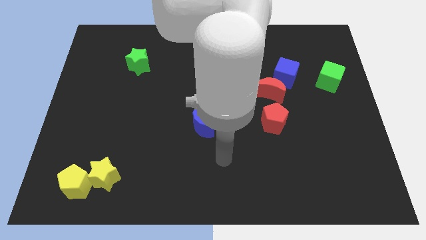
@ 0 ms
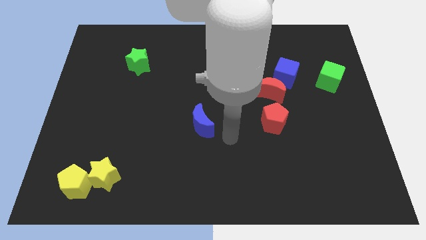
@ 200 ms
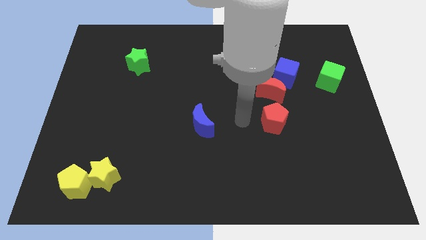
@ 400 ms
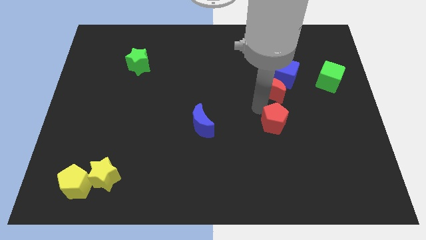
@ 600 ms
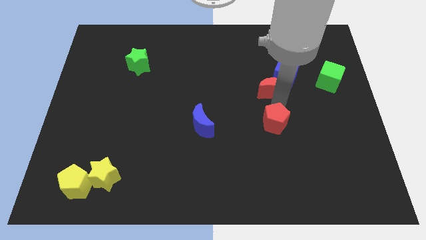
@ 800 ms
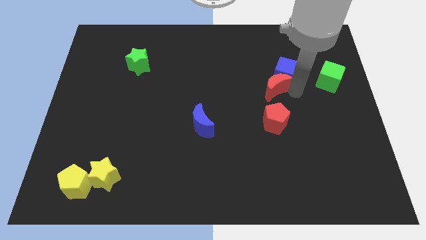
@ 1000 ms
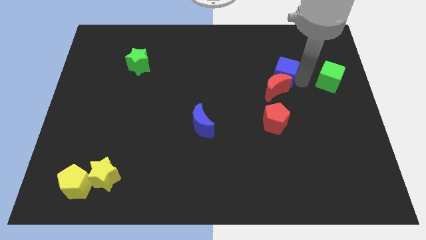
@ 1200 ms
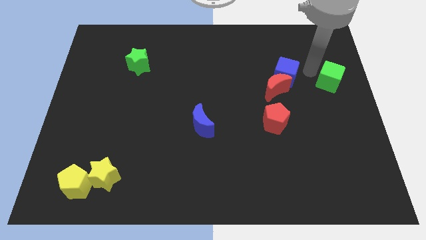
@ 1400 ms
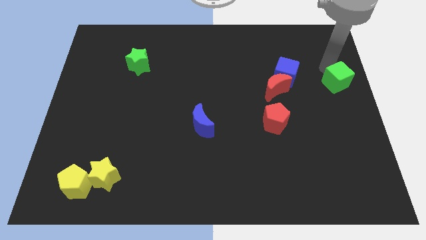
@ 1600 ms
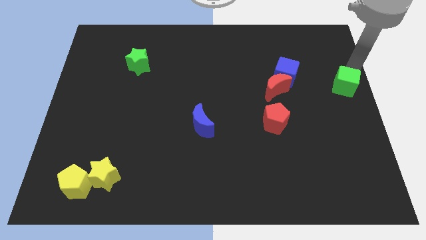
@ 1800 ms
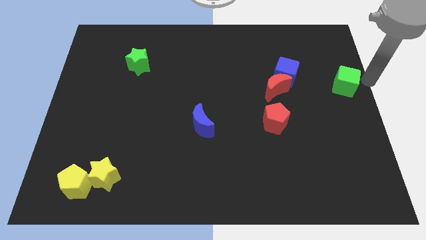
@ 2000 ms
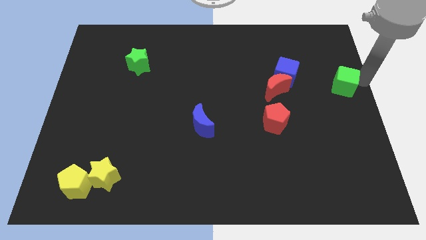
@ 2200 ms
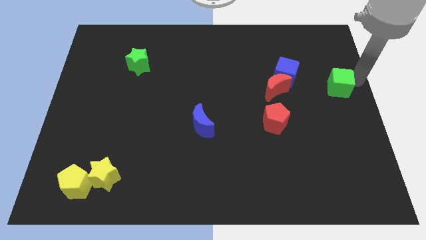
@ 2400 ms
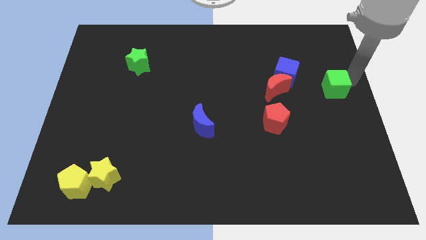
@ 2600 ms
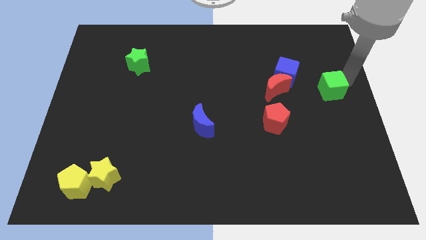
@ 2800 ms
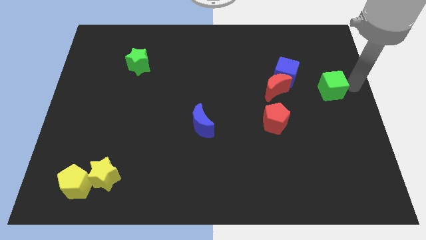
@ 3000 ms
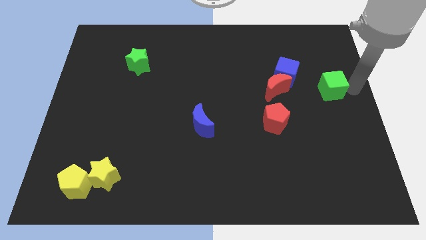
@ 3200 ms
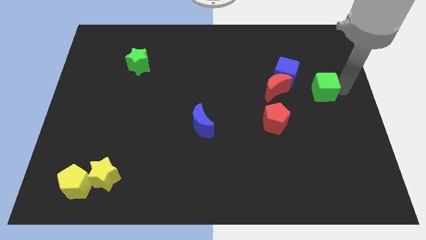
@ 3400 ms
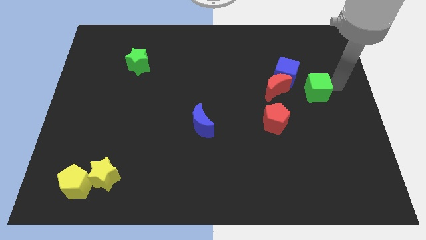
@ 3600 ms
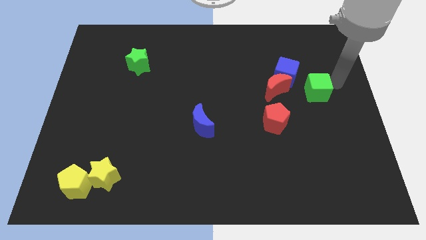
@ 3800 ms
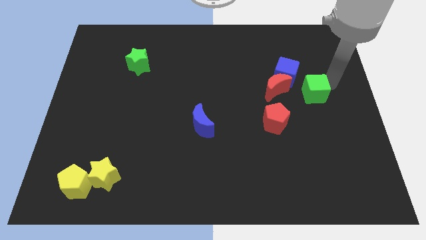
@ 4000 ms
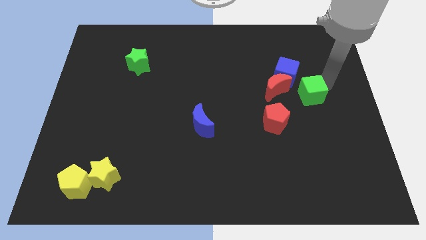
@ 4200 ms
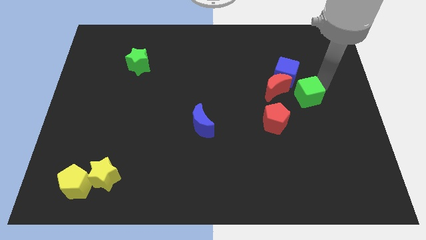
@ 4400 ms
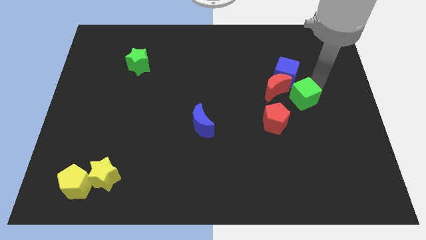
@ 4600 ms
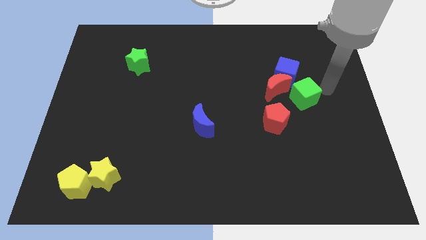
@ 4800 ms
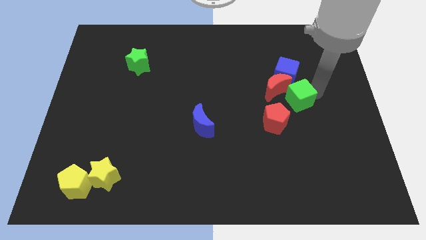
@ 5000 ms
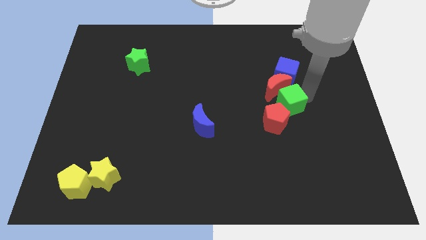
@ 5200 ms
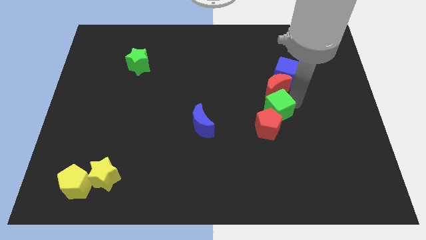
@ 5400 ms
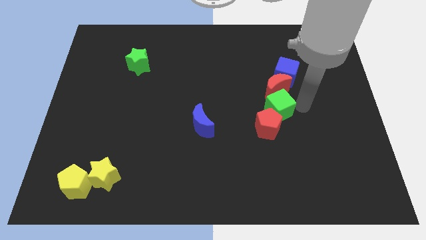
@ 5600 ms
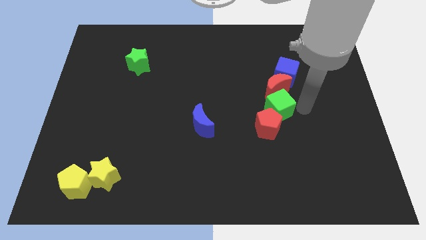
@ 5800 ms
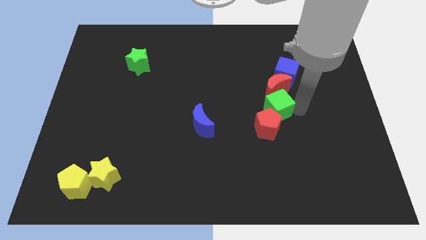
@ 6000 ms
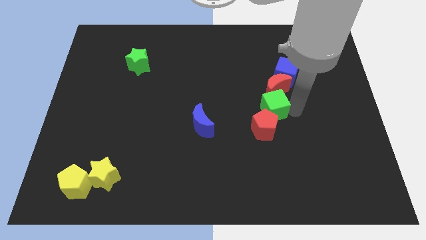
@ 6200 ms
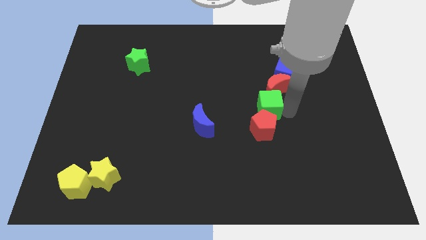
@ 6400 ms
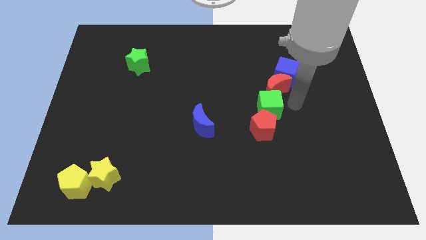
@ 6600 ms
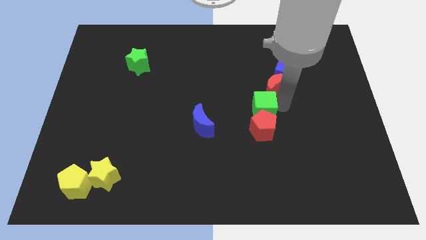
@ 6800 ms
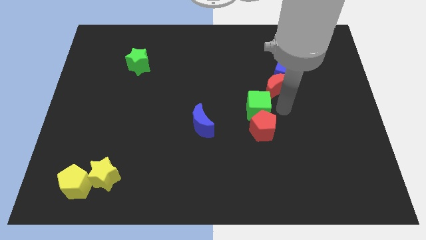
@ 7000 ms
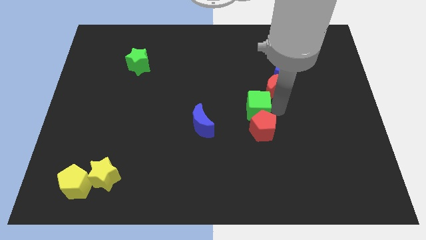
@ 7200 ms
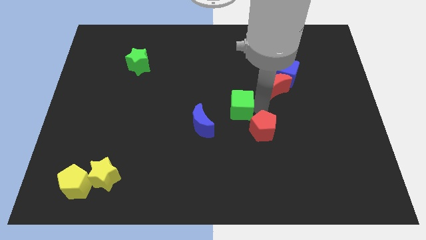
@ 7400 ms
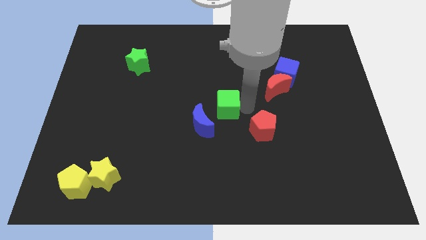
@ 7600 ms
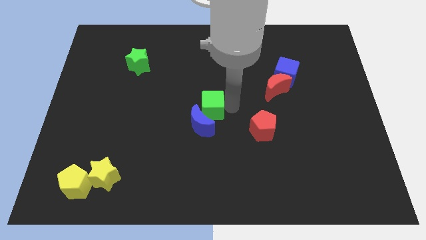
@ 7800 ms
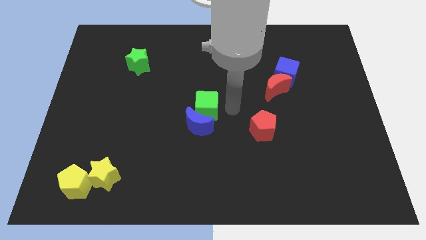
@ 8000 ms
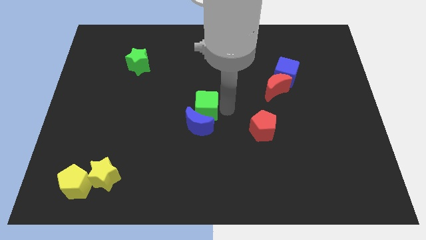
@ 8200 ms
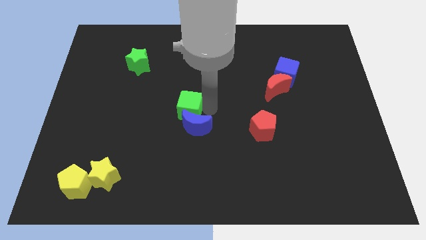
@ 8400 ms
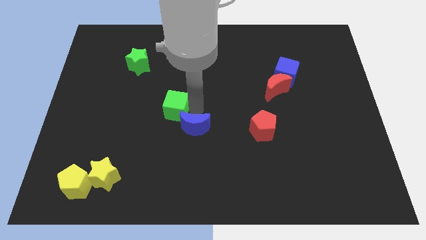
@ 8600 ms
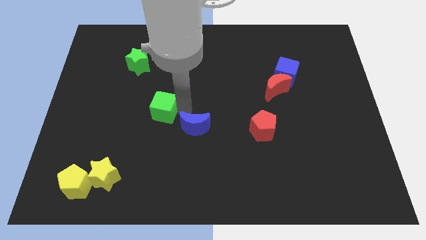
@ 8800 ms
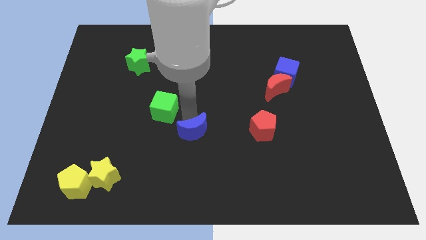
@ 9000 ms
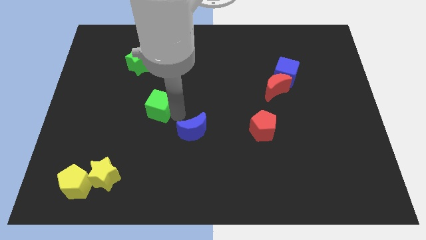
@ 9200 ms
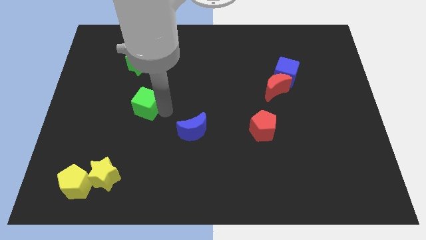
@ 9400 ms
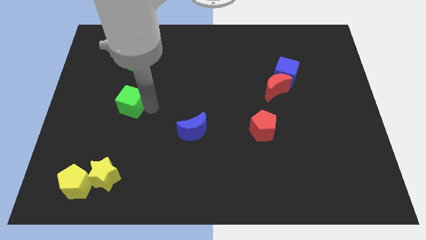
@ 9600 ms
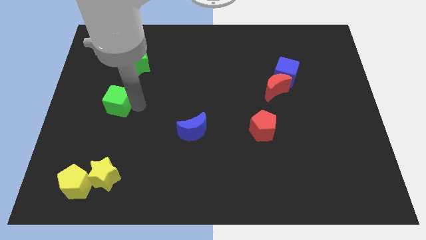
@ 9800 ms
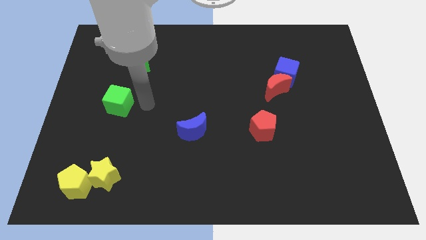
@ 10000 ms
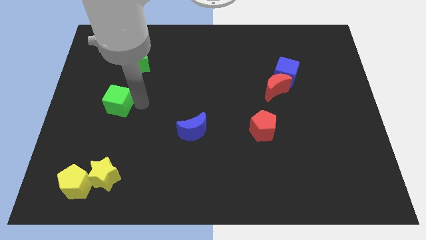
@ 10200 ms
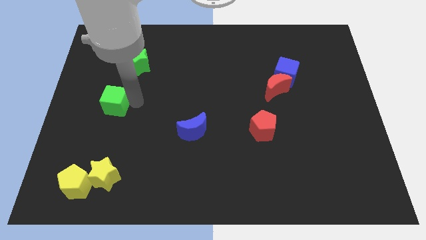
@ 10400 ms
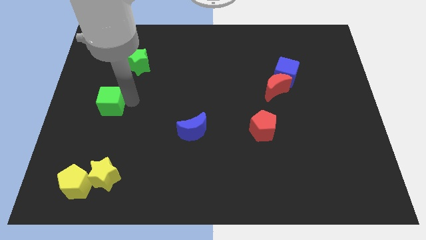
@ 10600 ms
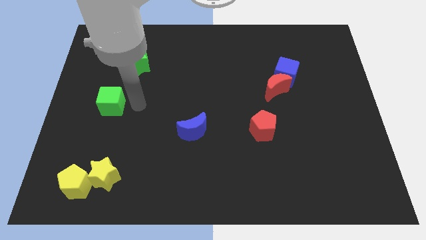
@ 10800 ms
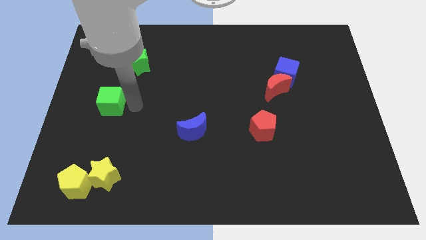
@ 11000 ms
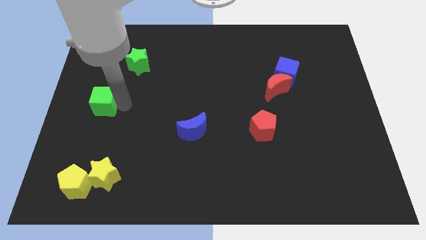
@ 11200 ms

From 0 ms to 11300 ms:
put the green cube to the left side of the board
